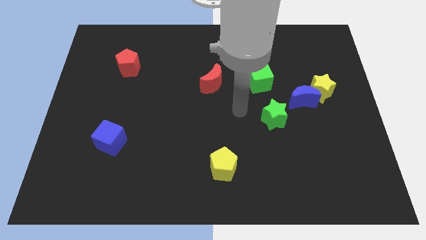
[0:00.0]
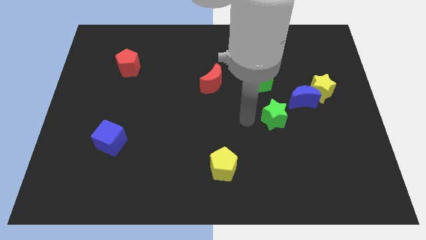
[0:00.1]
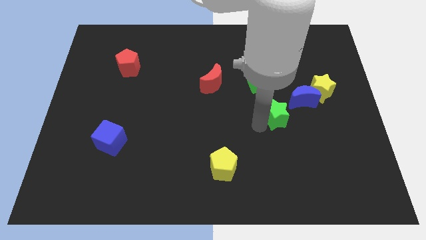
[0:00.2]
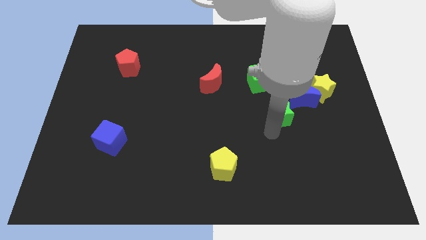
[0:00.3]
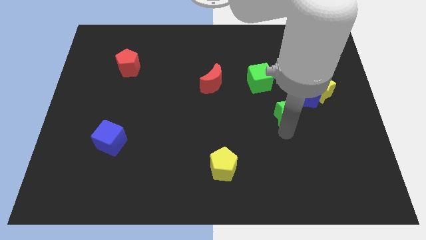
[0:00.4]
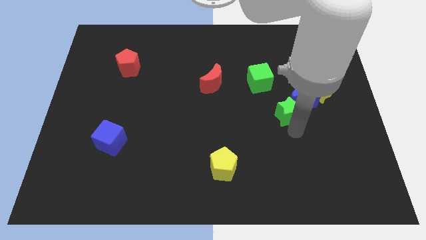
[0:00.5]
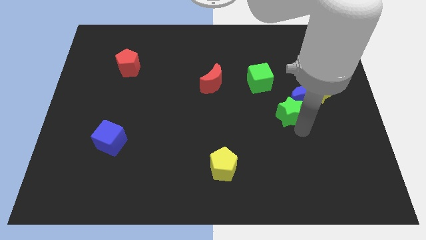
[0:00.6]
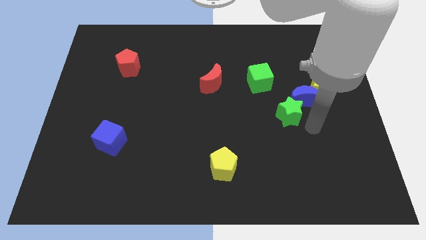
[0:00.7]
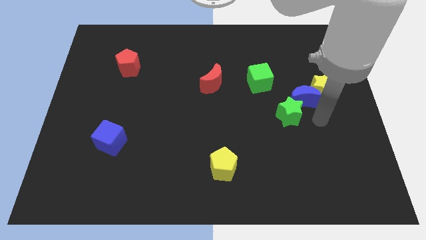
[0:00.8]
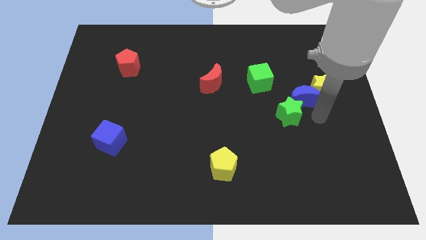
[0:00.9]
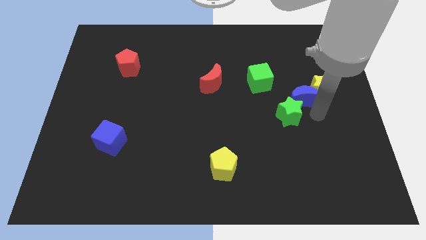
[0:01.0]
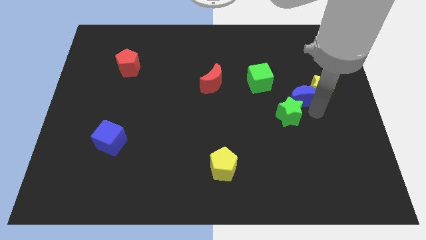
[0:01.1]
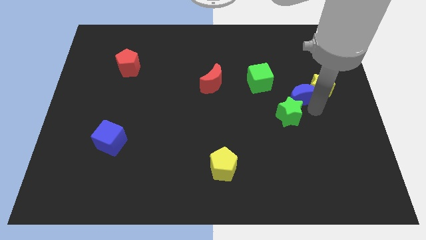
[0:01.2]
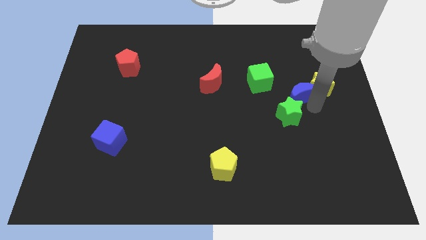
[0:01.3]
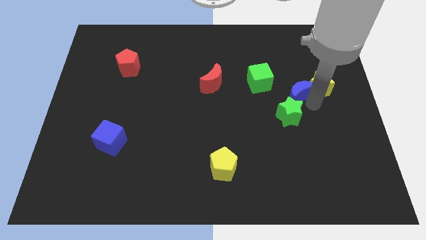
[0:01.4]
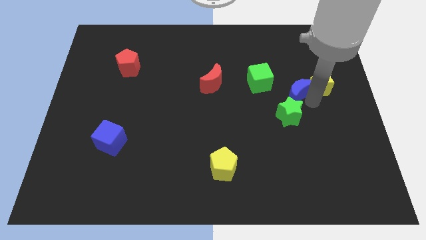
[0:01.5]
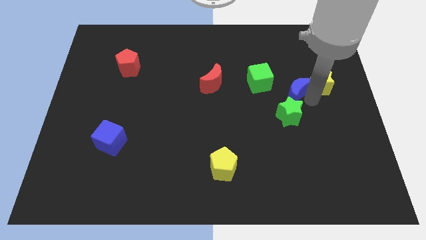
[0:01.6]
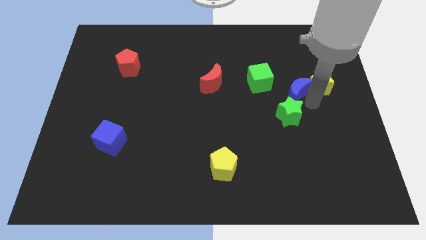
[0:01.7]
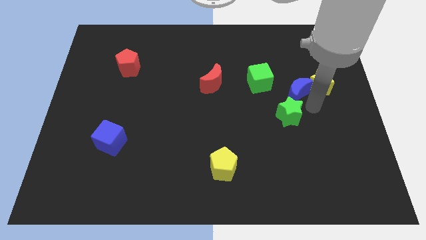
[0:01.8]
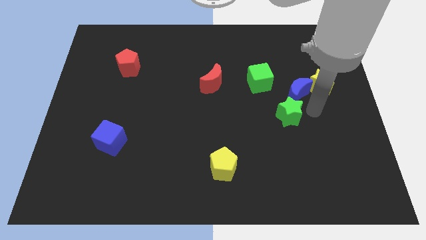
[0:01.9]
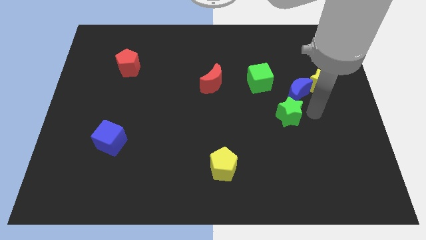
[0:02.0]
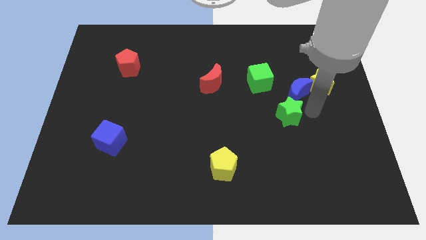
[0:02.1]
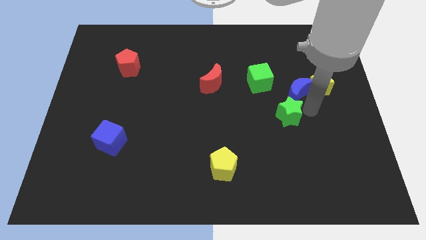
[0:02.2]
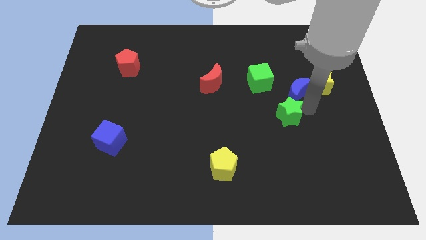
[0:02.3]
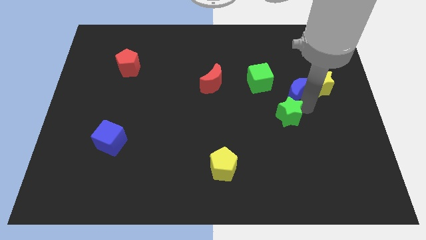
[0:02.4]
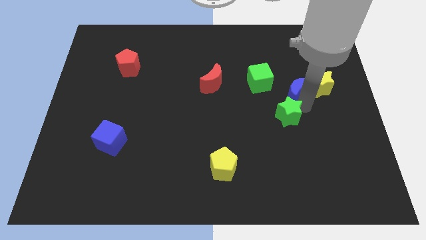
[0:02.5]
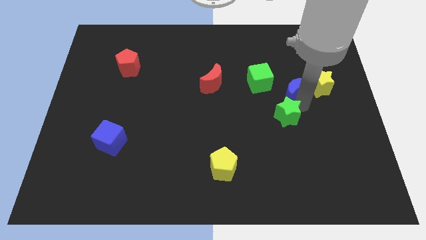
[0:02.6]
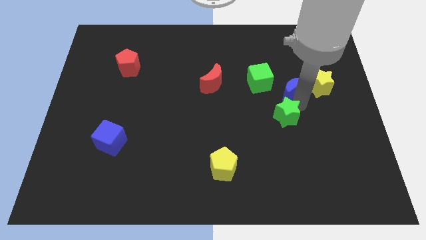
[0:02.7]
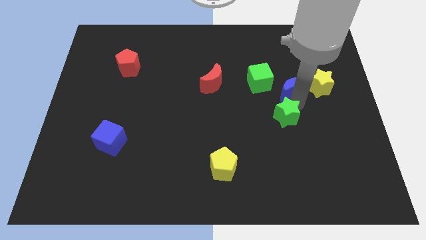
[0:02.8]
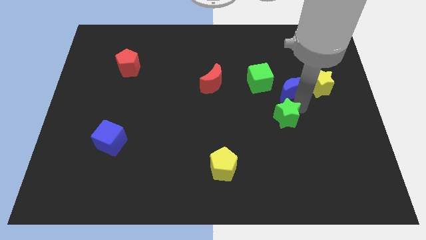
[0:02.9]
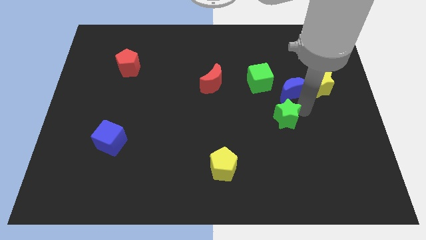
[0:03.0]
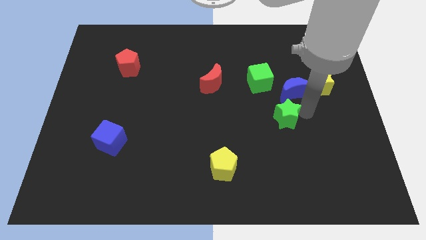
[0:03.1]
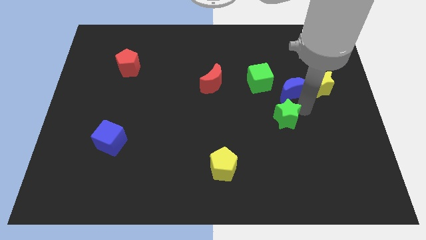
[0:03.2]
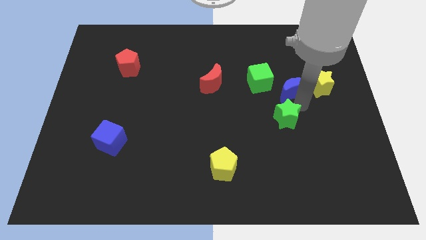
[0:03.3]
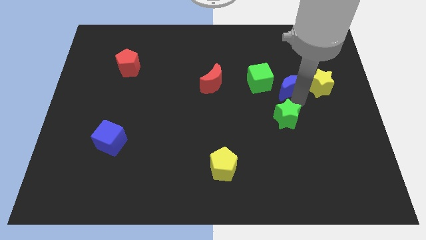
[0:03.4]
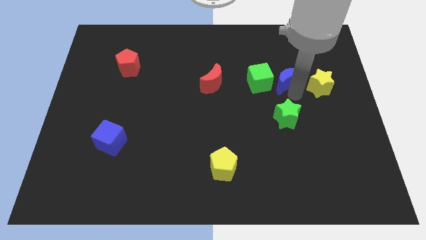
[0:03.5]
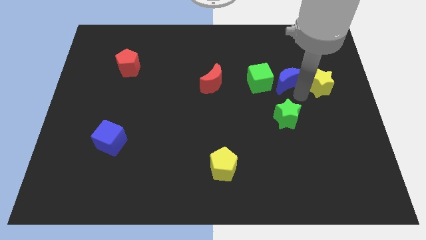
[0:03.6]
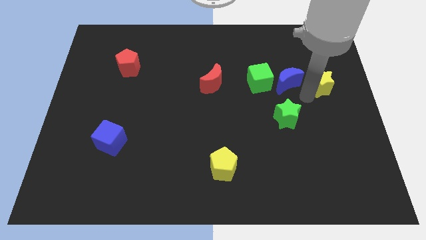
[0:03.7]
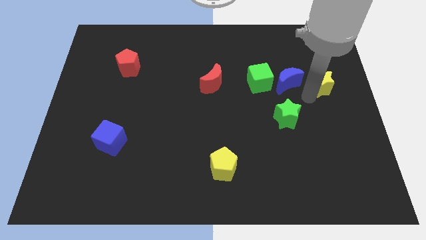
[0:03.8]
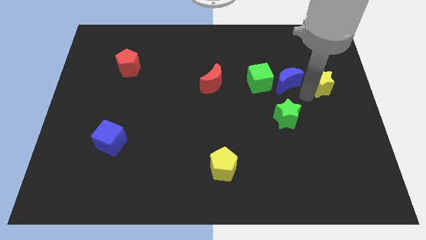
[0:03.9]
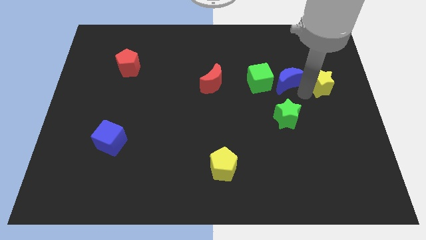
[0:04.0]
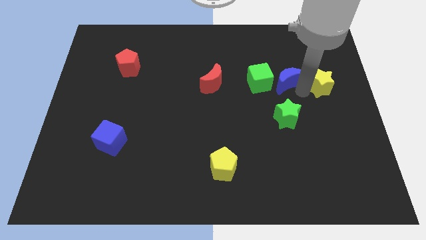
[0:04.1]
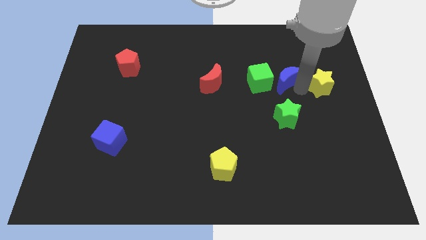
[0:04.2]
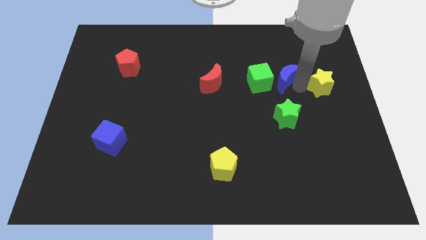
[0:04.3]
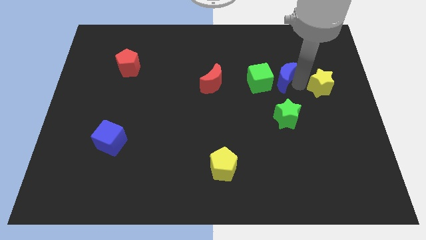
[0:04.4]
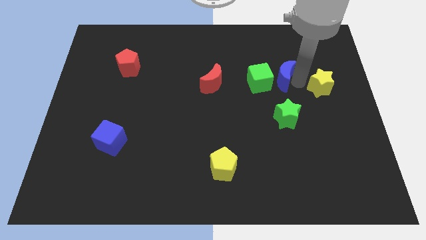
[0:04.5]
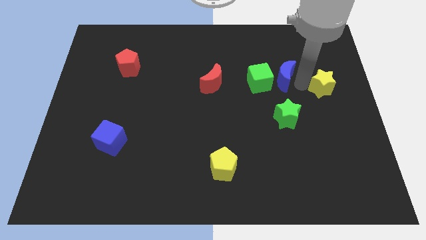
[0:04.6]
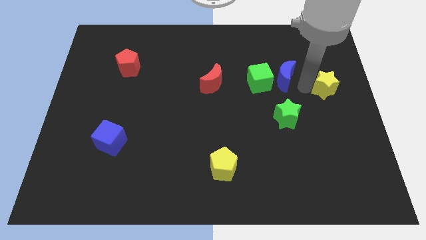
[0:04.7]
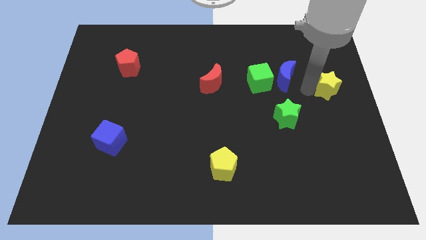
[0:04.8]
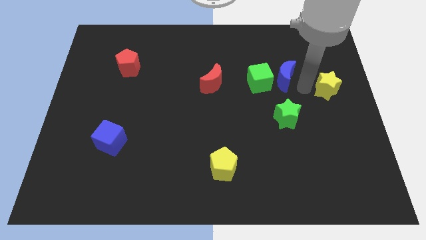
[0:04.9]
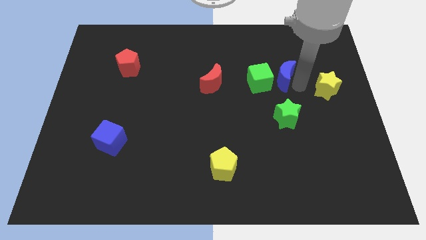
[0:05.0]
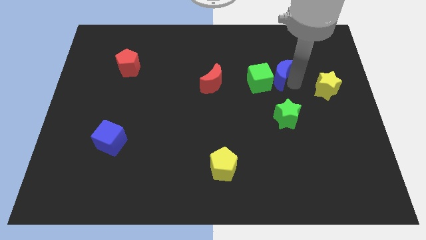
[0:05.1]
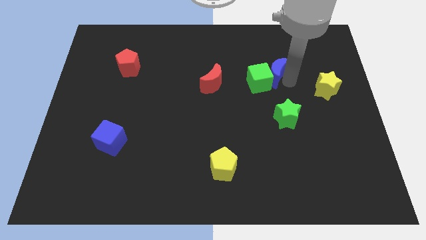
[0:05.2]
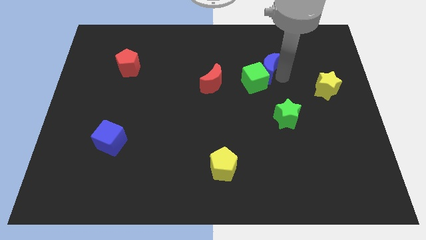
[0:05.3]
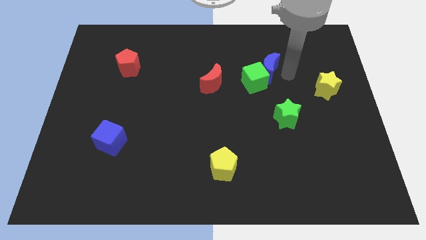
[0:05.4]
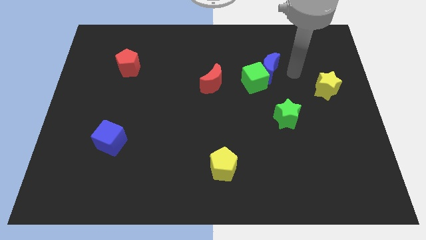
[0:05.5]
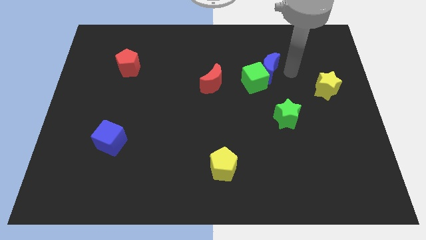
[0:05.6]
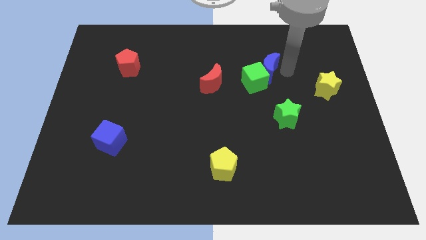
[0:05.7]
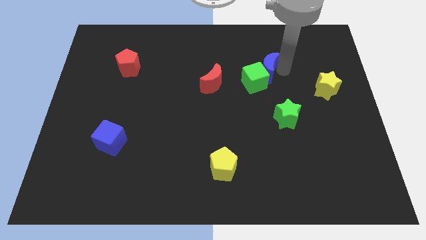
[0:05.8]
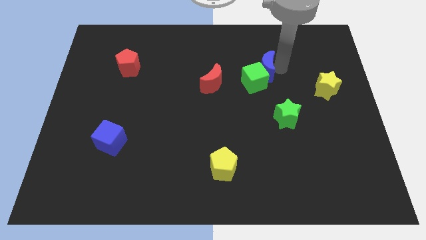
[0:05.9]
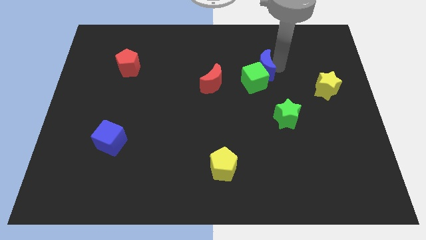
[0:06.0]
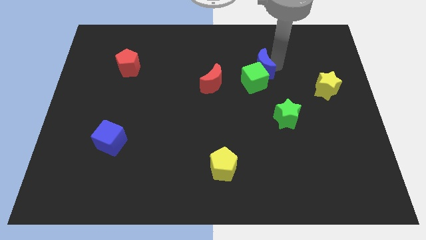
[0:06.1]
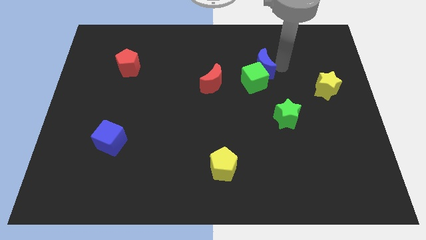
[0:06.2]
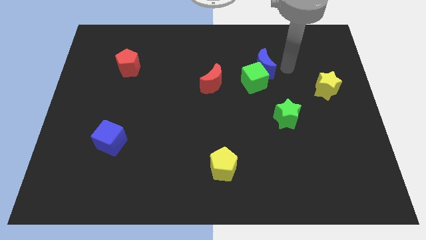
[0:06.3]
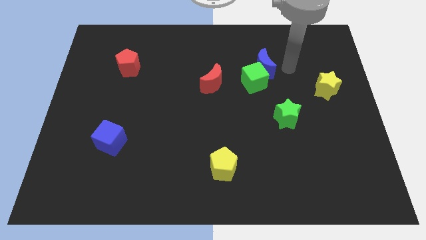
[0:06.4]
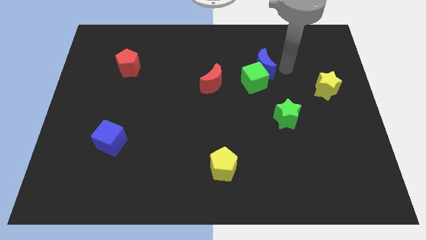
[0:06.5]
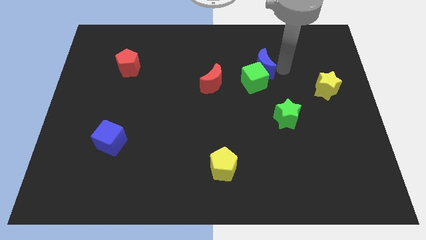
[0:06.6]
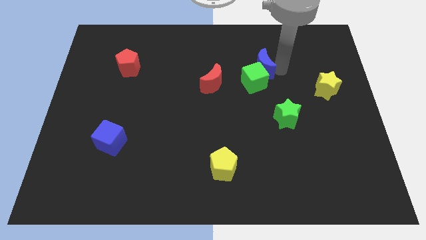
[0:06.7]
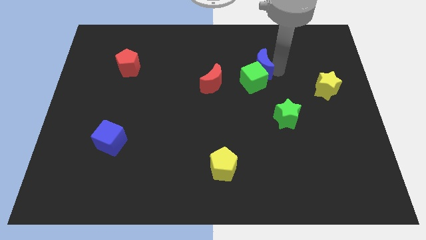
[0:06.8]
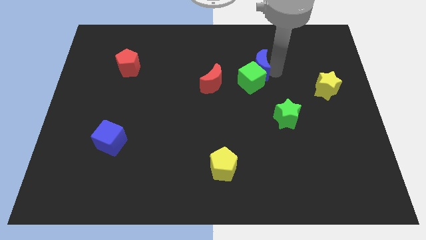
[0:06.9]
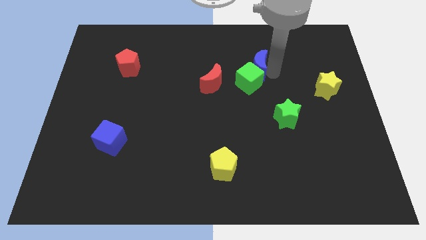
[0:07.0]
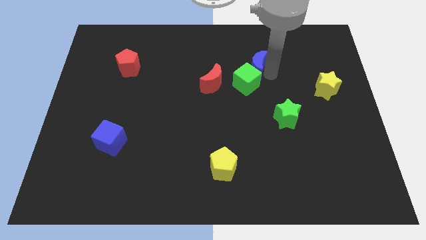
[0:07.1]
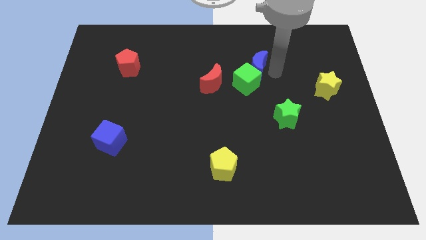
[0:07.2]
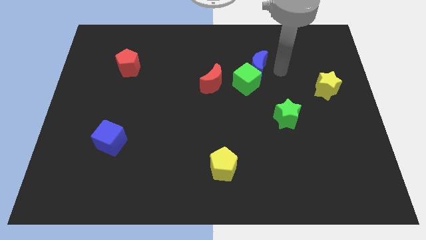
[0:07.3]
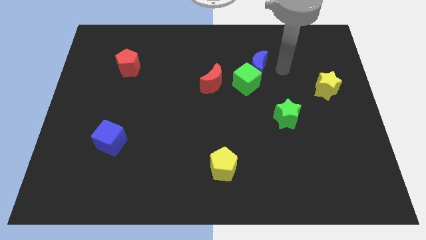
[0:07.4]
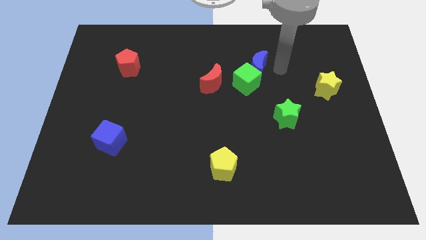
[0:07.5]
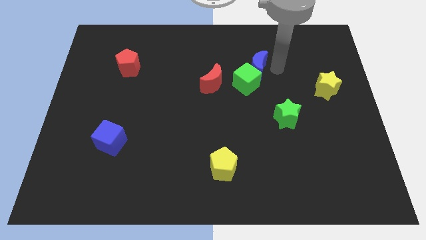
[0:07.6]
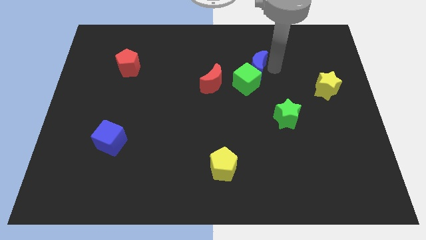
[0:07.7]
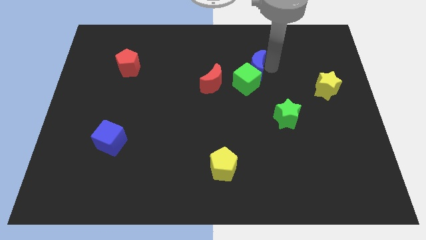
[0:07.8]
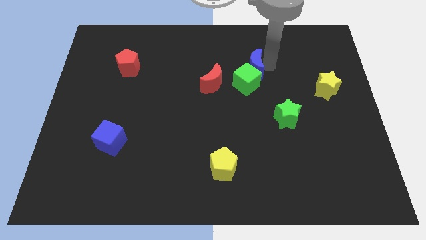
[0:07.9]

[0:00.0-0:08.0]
put the blue moon to the top right of the red moon

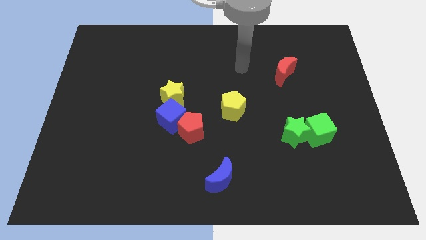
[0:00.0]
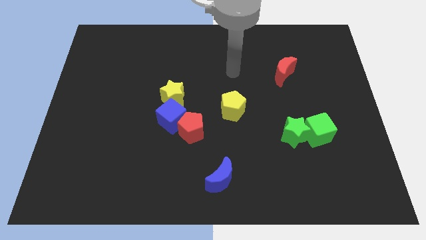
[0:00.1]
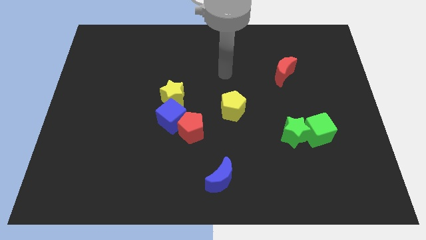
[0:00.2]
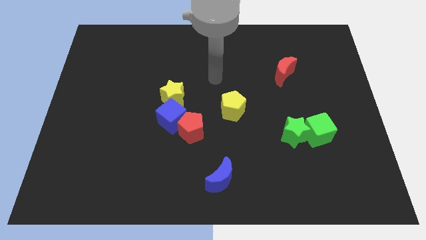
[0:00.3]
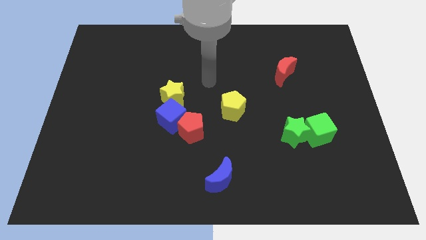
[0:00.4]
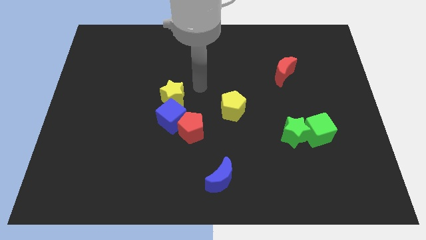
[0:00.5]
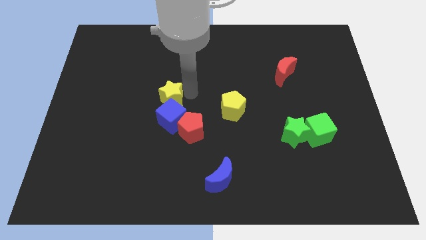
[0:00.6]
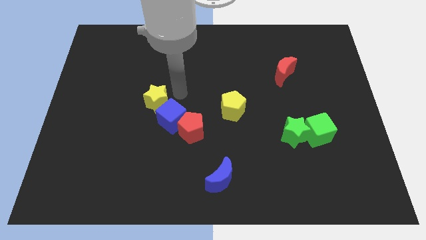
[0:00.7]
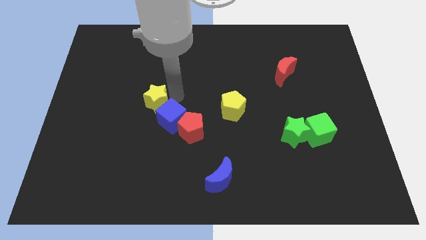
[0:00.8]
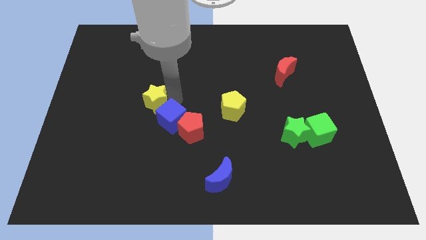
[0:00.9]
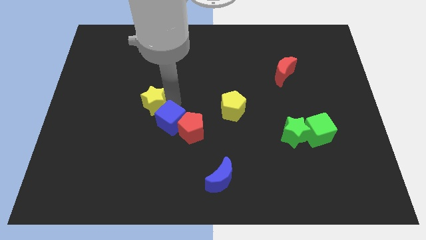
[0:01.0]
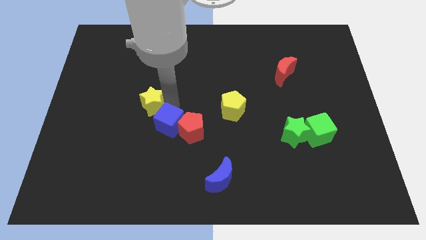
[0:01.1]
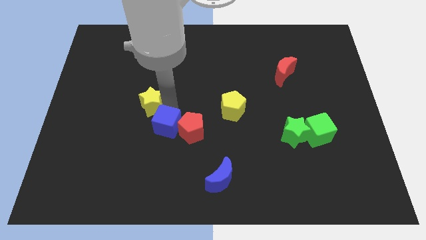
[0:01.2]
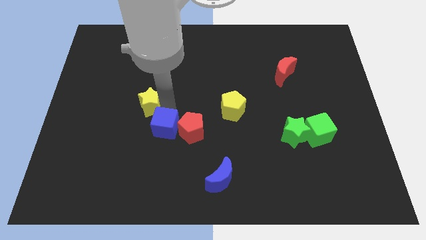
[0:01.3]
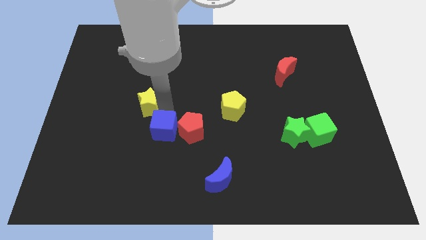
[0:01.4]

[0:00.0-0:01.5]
push the blue cube to the bottom left side of the red pentagon
